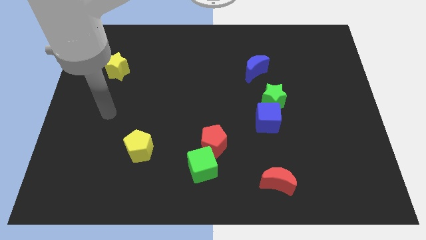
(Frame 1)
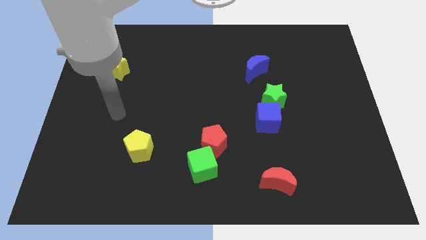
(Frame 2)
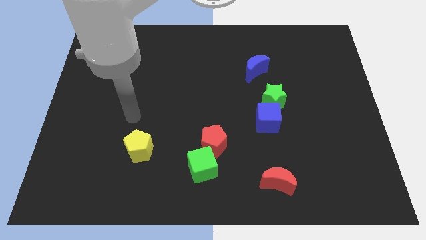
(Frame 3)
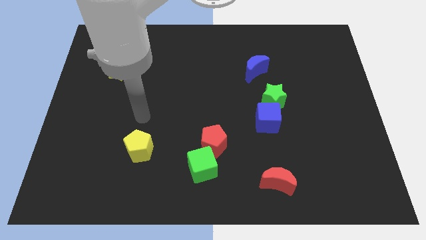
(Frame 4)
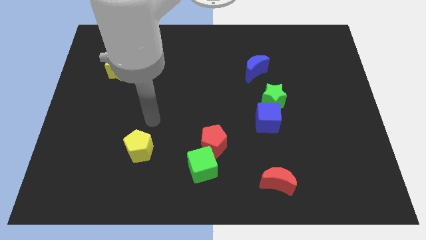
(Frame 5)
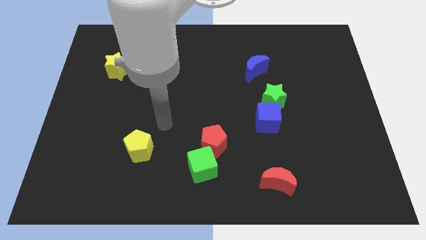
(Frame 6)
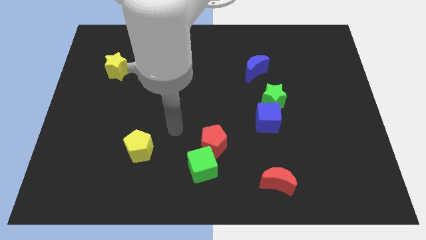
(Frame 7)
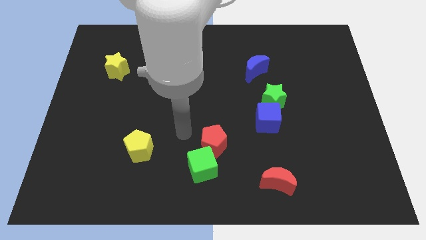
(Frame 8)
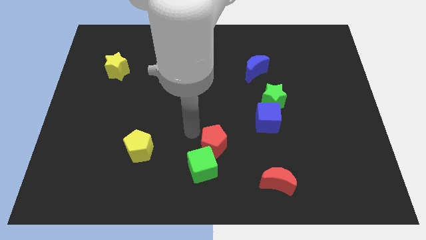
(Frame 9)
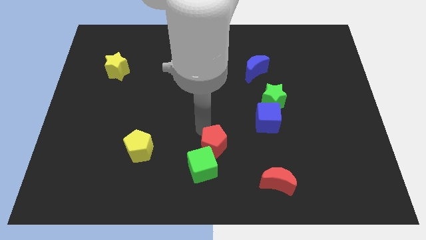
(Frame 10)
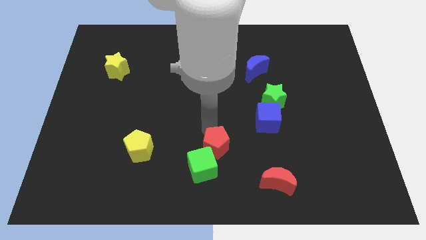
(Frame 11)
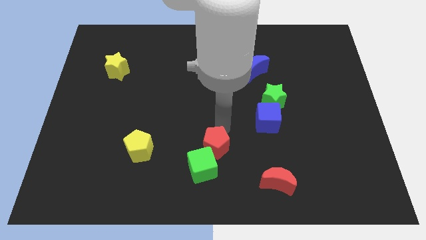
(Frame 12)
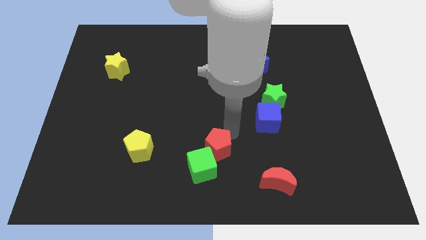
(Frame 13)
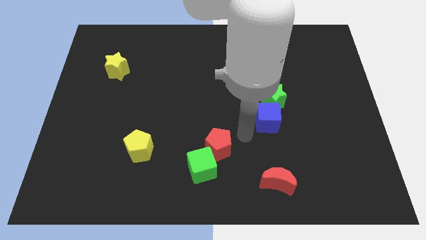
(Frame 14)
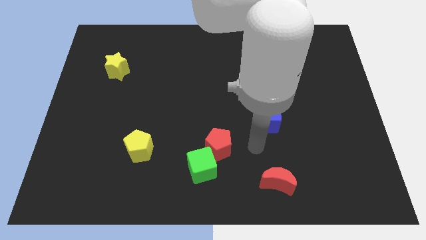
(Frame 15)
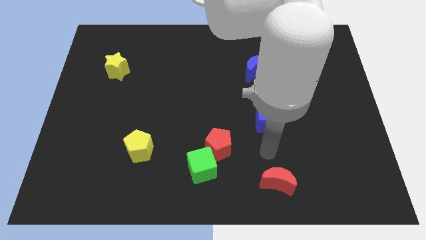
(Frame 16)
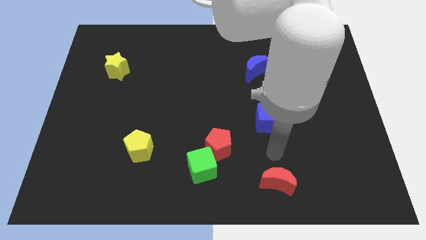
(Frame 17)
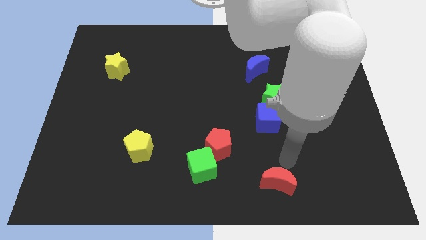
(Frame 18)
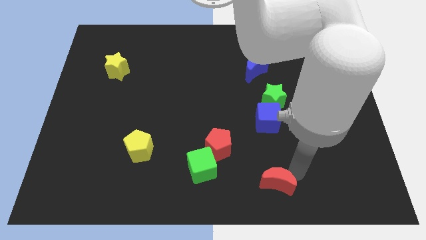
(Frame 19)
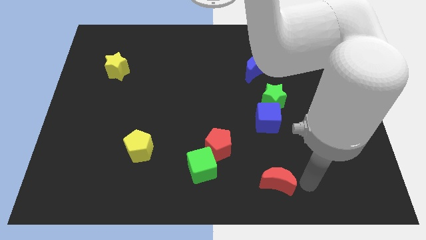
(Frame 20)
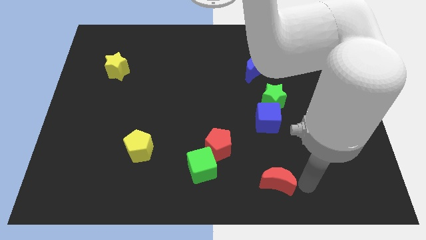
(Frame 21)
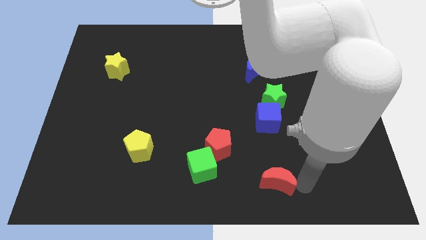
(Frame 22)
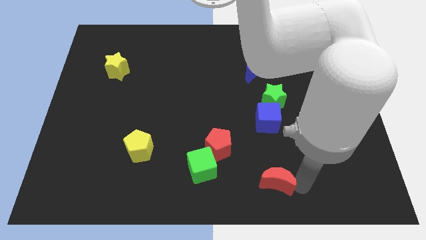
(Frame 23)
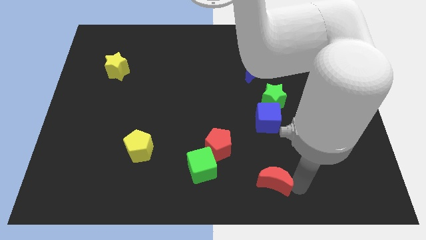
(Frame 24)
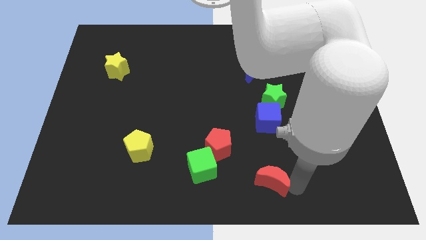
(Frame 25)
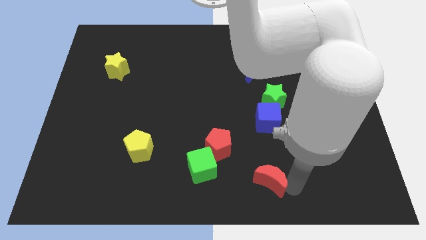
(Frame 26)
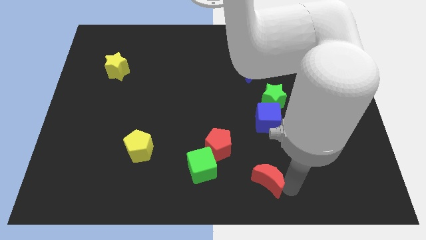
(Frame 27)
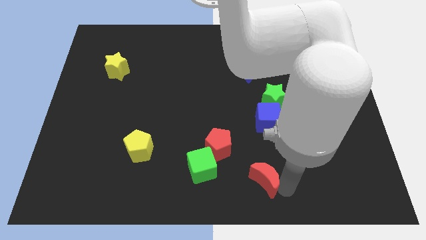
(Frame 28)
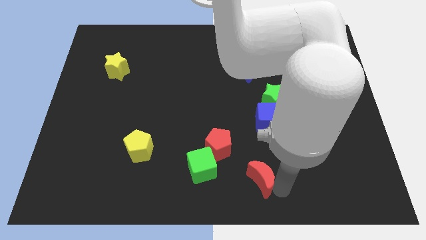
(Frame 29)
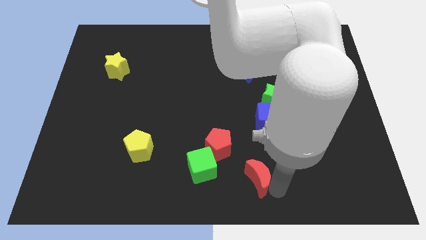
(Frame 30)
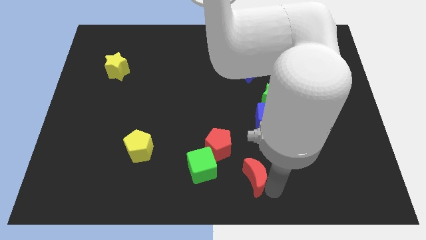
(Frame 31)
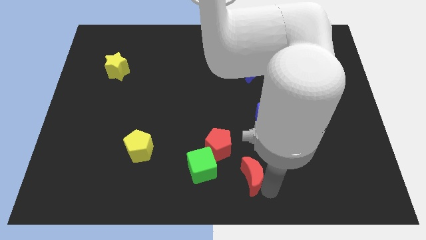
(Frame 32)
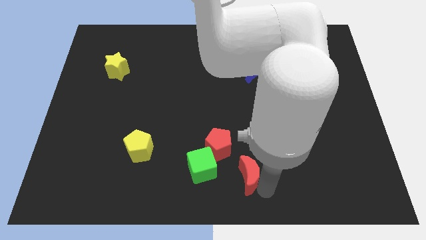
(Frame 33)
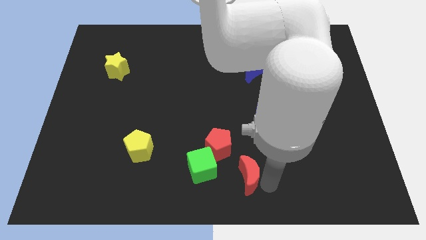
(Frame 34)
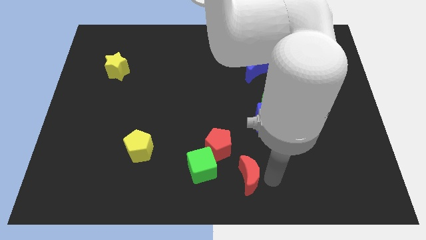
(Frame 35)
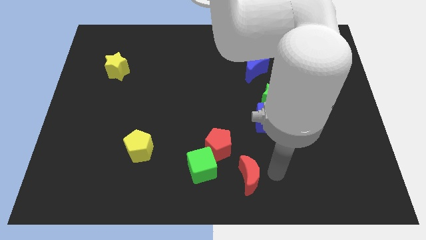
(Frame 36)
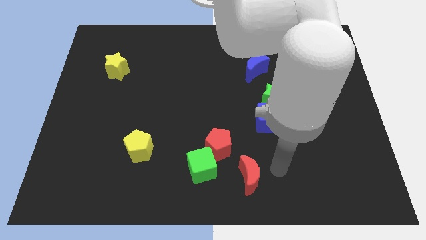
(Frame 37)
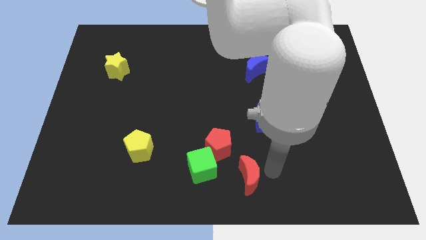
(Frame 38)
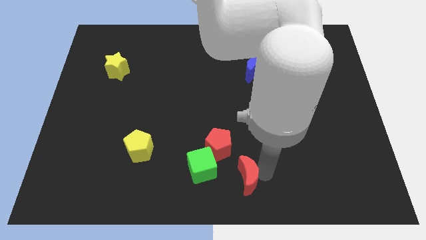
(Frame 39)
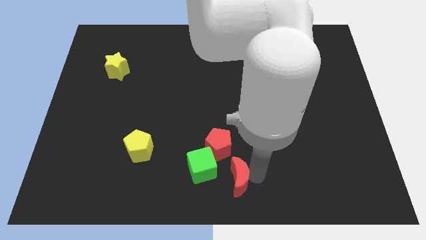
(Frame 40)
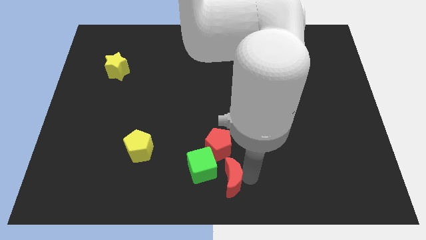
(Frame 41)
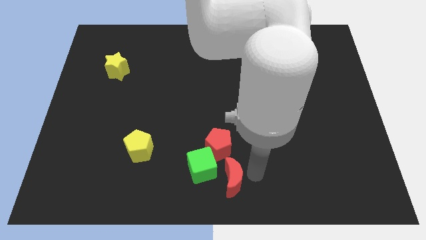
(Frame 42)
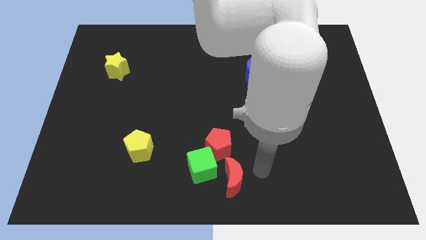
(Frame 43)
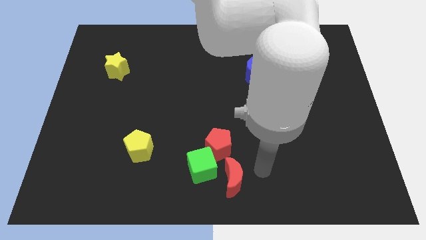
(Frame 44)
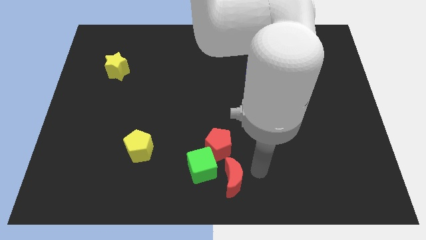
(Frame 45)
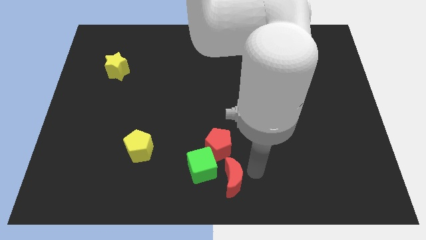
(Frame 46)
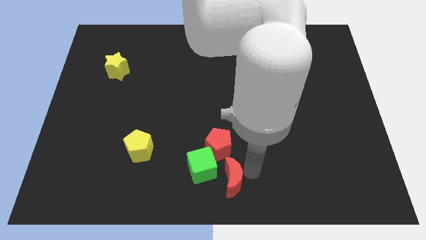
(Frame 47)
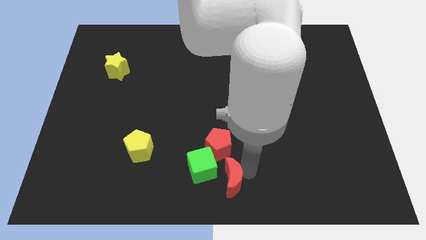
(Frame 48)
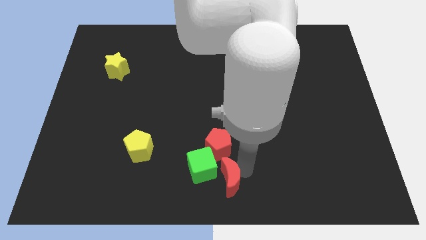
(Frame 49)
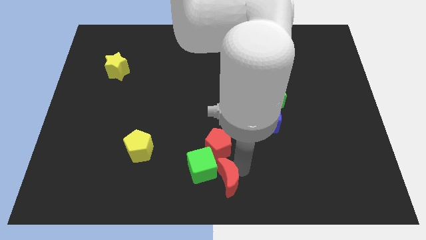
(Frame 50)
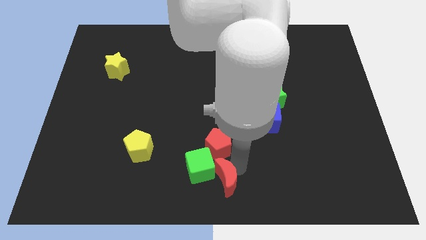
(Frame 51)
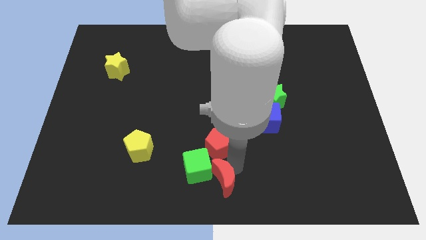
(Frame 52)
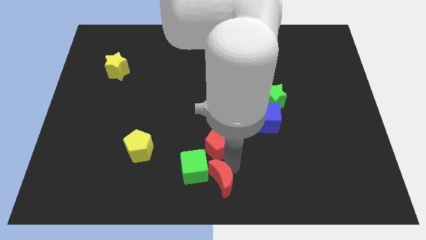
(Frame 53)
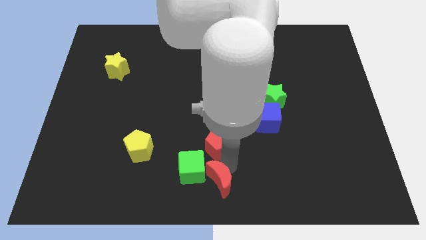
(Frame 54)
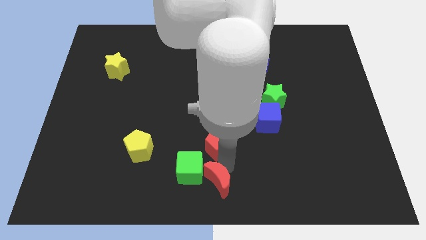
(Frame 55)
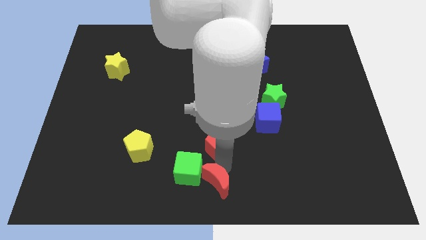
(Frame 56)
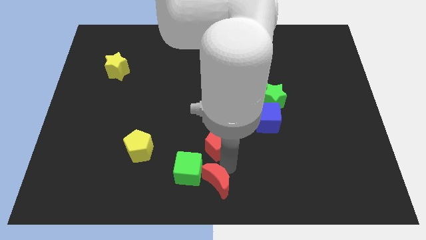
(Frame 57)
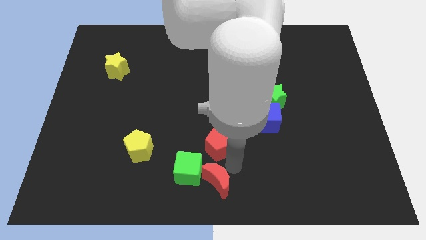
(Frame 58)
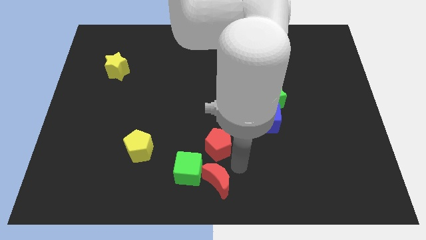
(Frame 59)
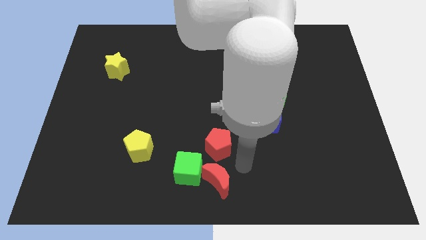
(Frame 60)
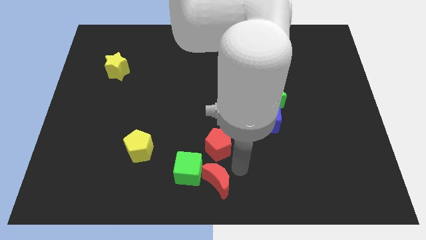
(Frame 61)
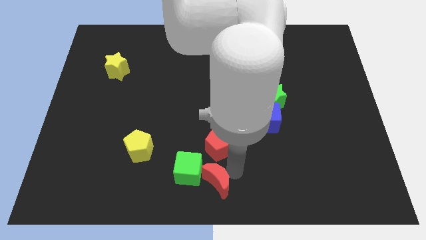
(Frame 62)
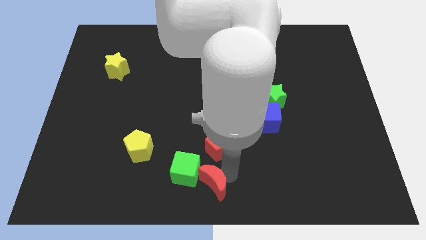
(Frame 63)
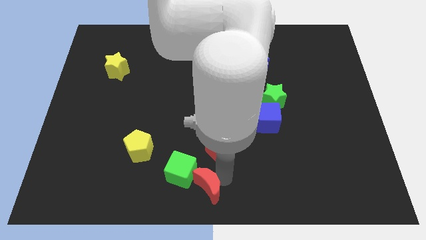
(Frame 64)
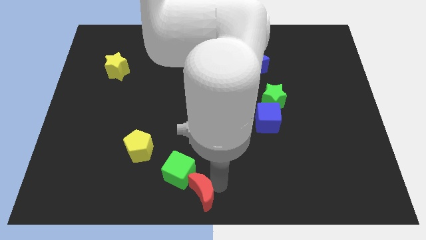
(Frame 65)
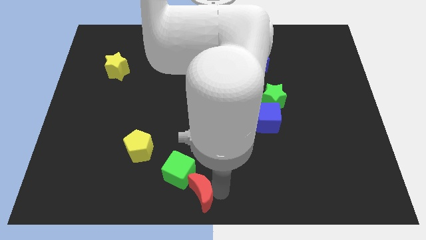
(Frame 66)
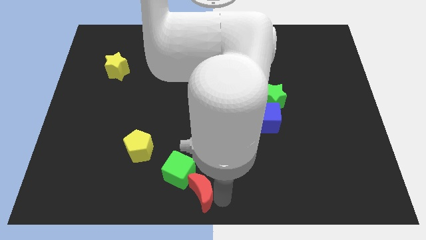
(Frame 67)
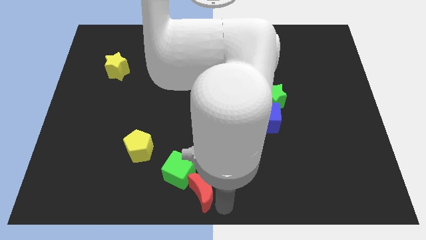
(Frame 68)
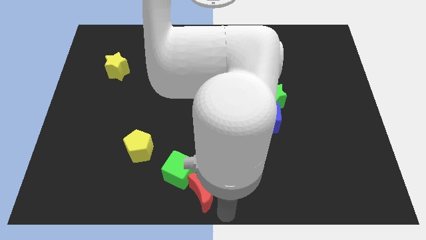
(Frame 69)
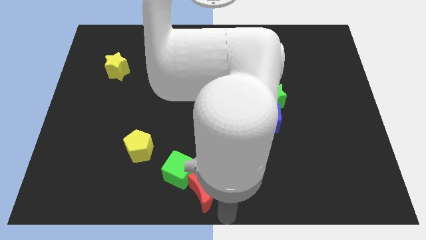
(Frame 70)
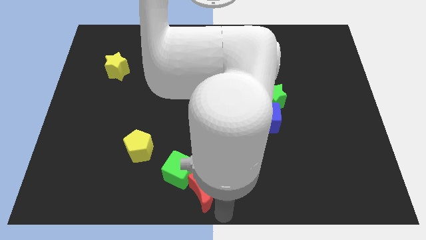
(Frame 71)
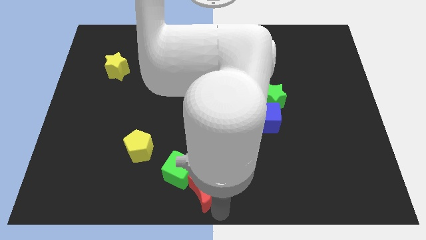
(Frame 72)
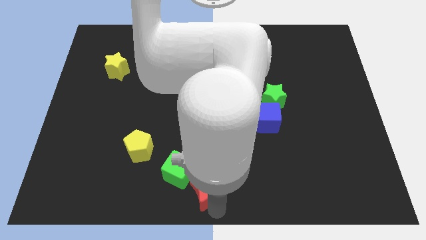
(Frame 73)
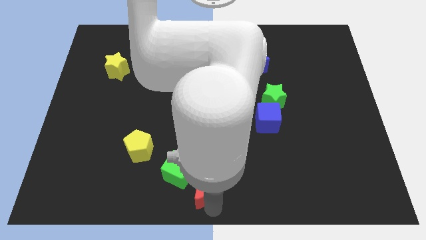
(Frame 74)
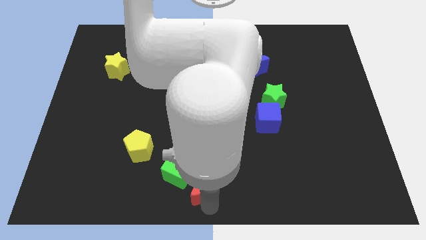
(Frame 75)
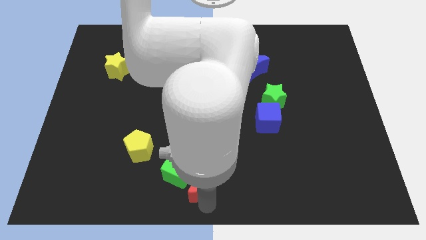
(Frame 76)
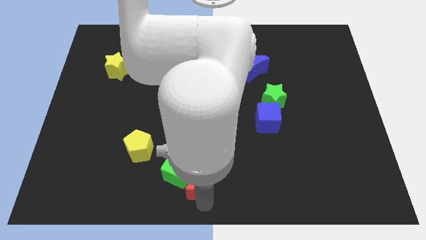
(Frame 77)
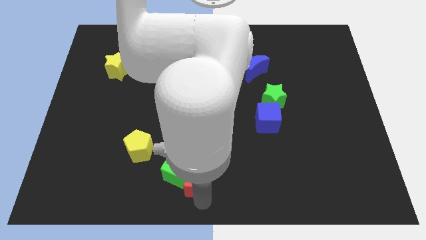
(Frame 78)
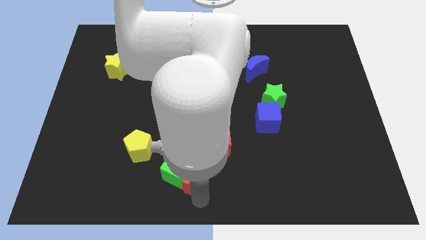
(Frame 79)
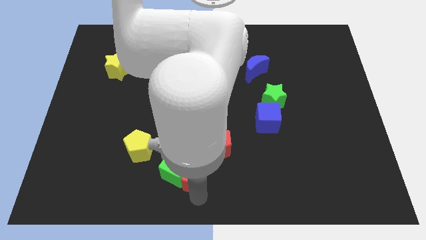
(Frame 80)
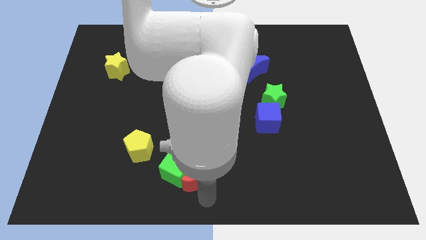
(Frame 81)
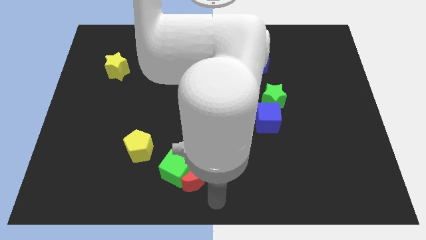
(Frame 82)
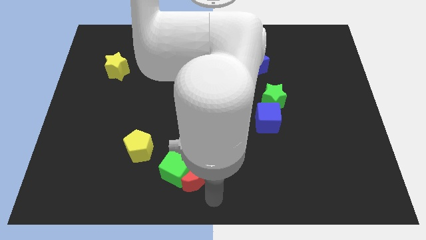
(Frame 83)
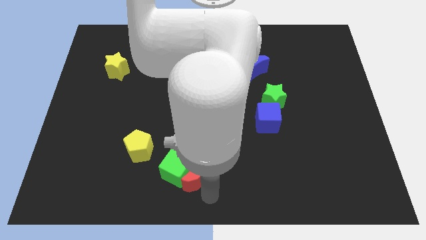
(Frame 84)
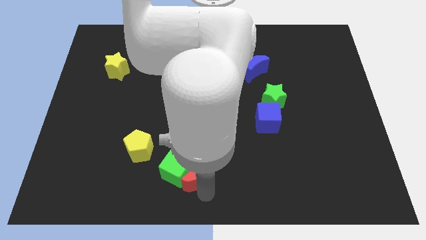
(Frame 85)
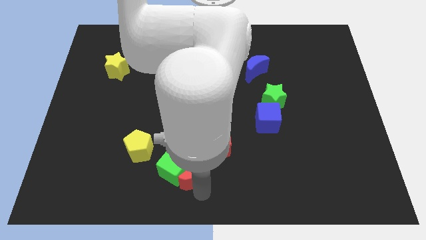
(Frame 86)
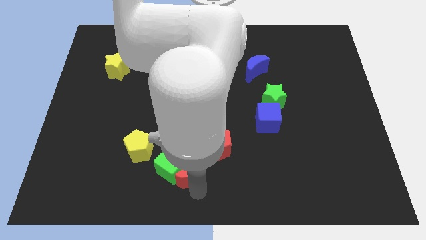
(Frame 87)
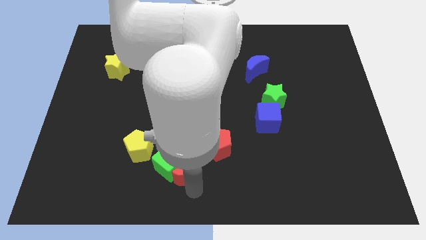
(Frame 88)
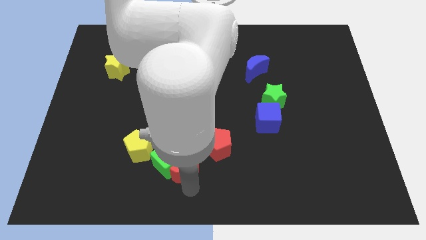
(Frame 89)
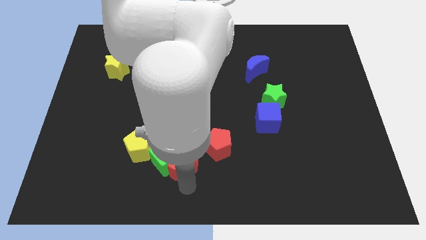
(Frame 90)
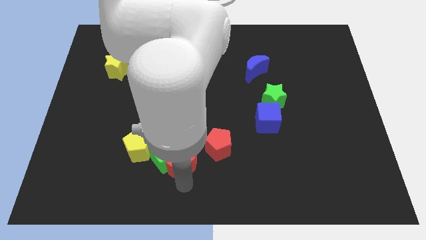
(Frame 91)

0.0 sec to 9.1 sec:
slide the red moon just left of the red pentagon
